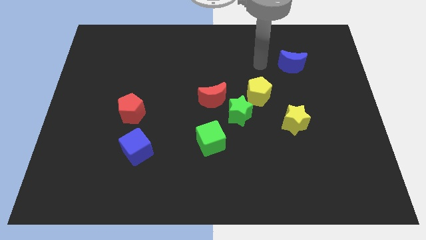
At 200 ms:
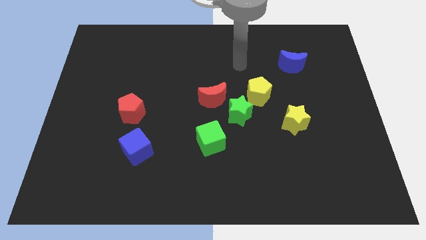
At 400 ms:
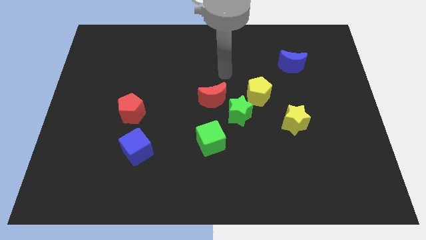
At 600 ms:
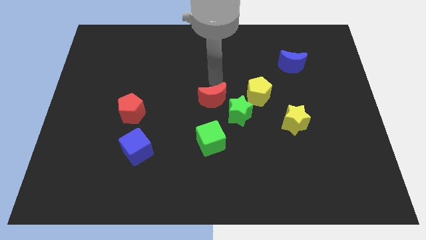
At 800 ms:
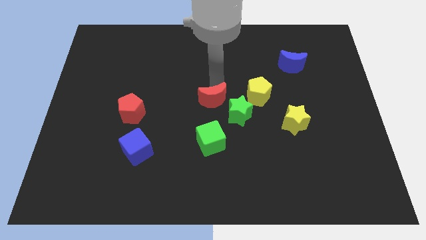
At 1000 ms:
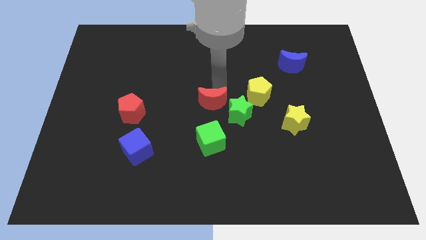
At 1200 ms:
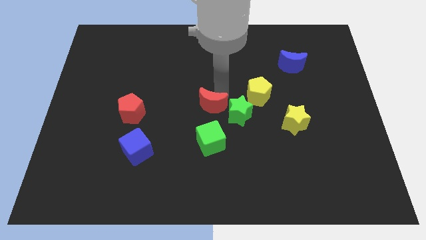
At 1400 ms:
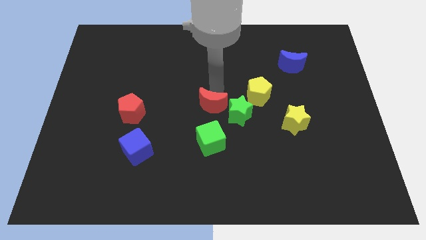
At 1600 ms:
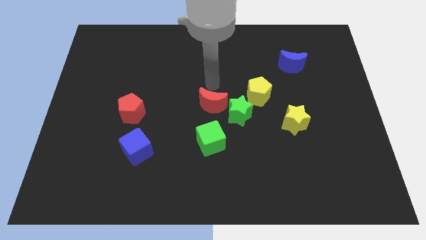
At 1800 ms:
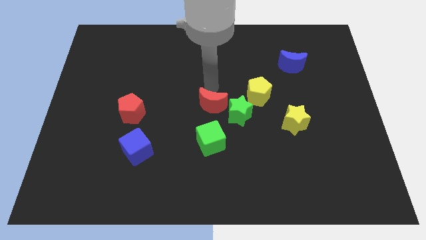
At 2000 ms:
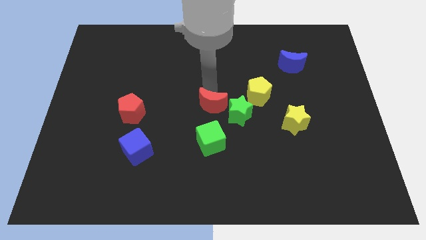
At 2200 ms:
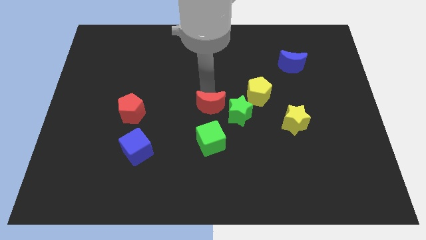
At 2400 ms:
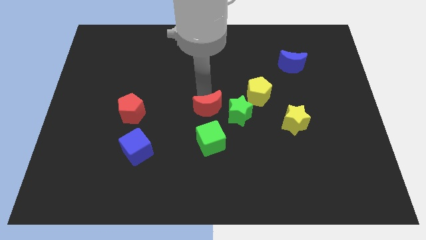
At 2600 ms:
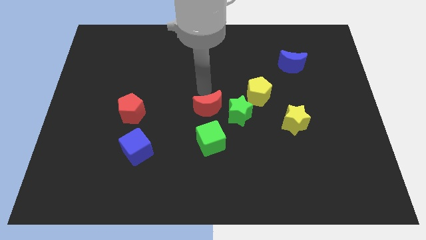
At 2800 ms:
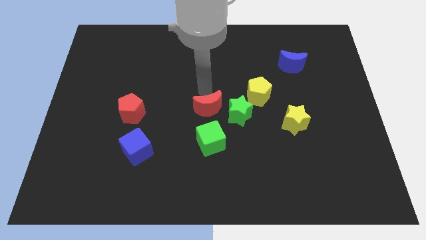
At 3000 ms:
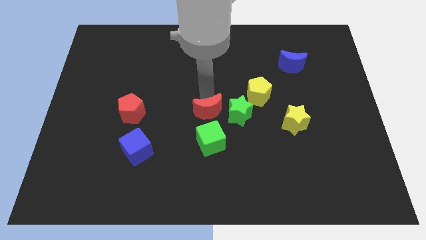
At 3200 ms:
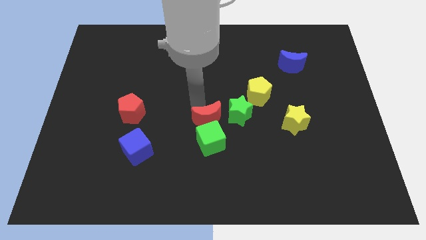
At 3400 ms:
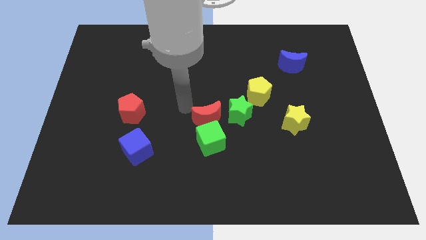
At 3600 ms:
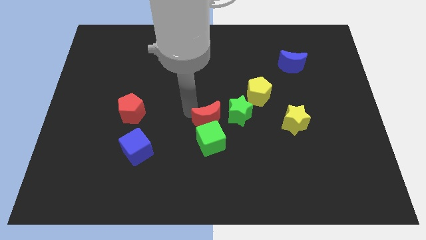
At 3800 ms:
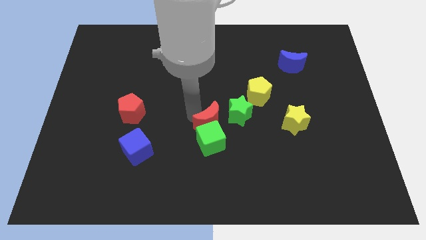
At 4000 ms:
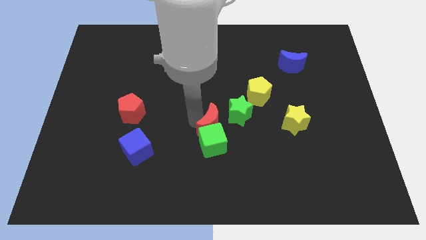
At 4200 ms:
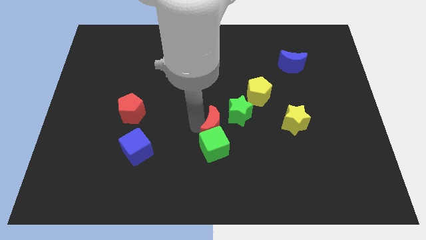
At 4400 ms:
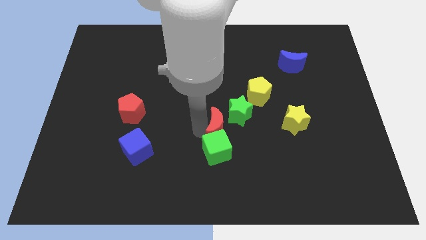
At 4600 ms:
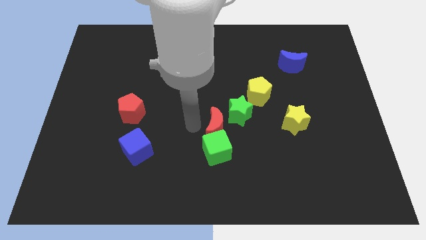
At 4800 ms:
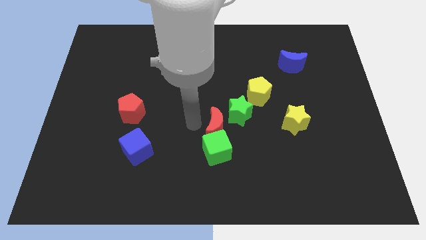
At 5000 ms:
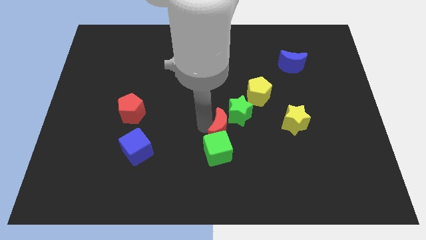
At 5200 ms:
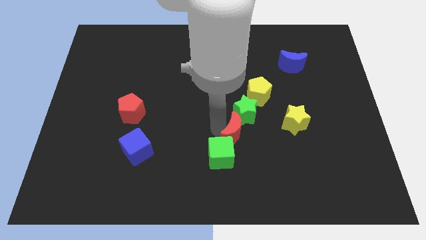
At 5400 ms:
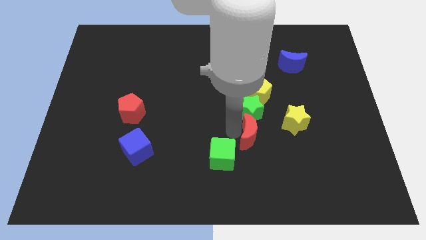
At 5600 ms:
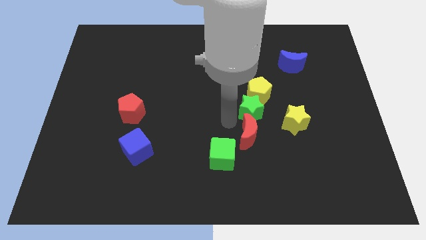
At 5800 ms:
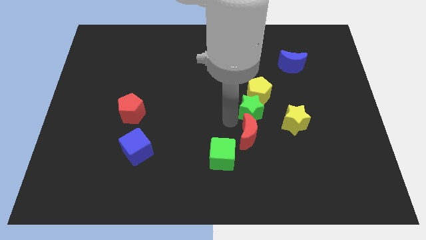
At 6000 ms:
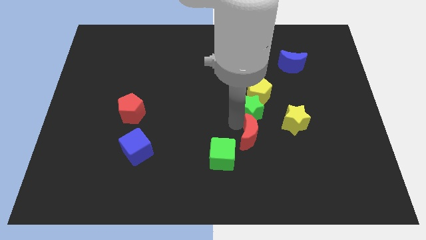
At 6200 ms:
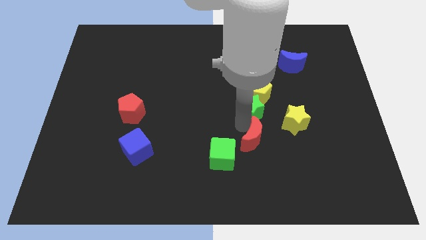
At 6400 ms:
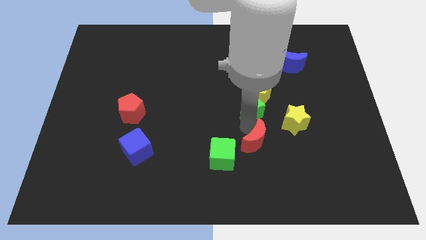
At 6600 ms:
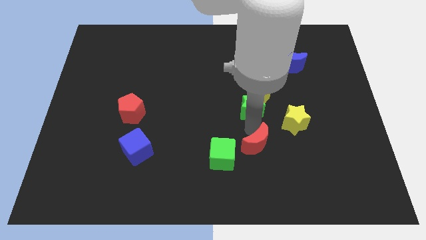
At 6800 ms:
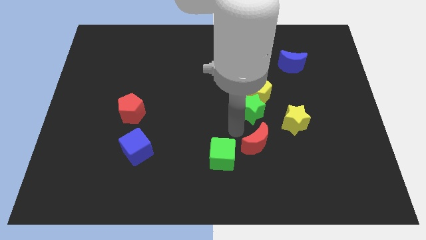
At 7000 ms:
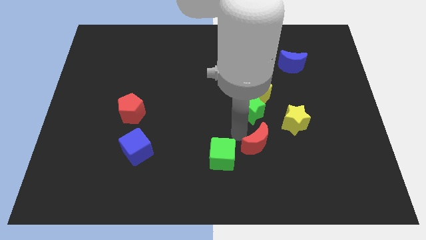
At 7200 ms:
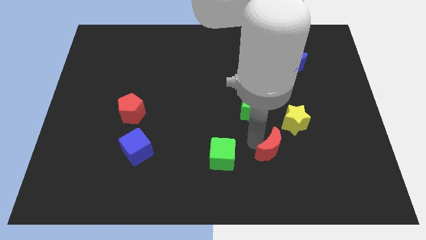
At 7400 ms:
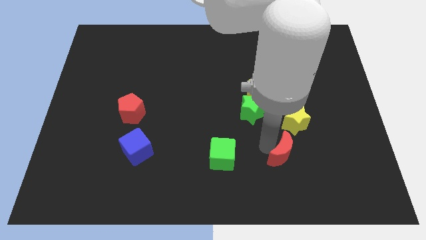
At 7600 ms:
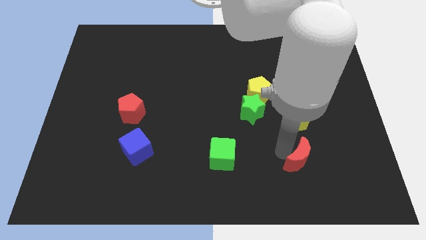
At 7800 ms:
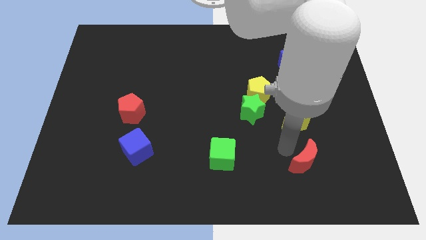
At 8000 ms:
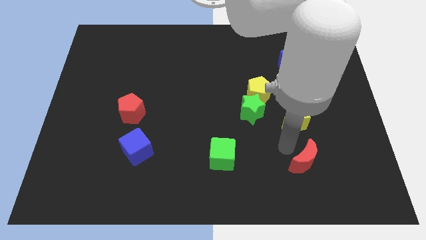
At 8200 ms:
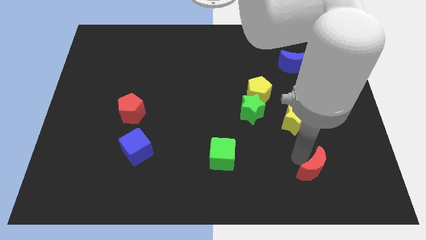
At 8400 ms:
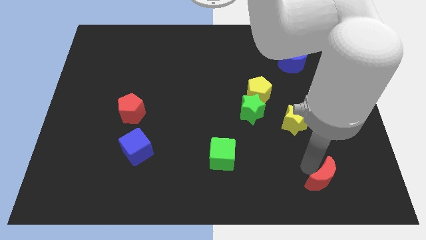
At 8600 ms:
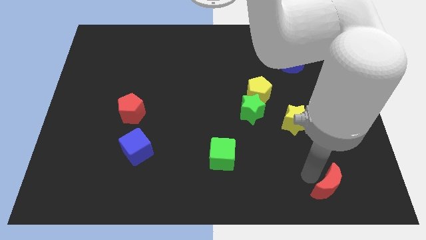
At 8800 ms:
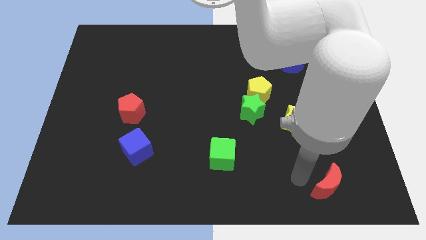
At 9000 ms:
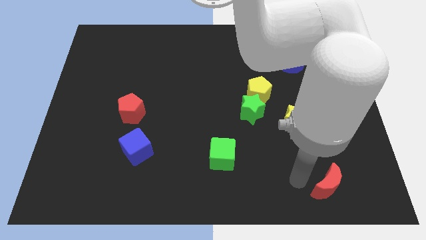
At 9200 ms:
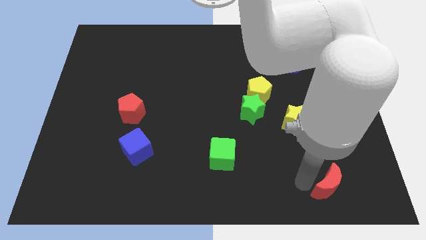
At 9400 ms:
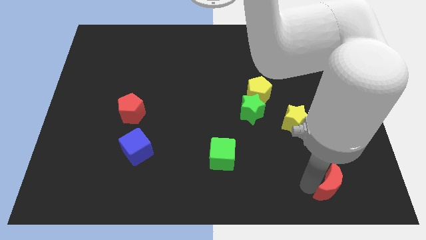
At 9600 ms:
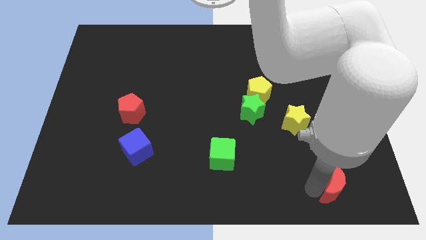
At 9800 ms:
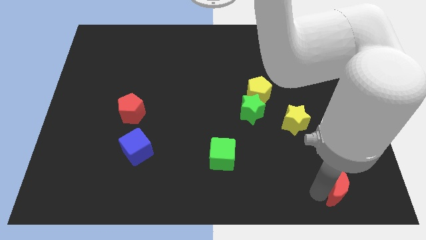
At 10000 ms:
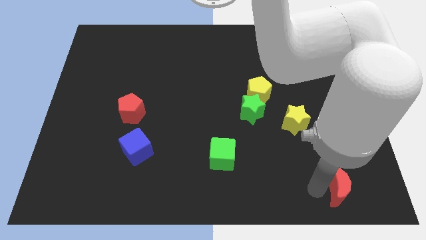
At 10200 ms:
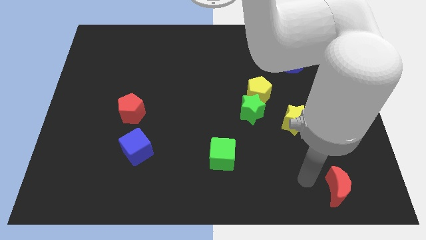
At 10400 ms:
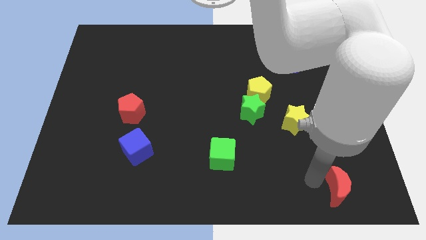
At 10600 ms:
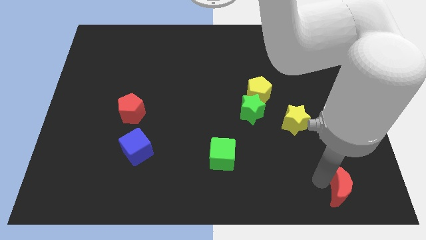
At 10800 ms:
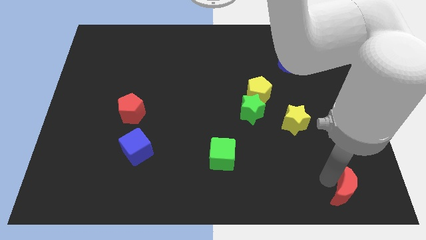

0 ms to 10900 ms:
move the red moon to the bottom right

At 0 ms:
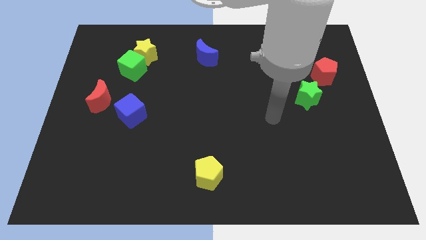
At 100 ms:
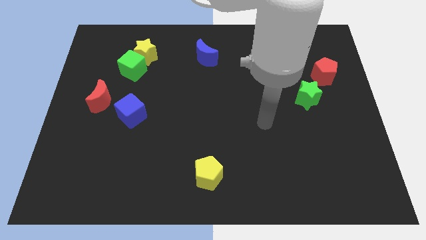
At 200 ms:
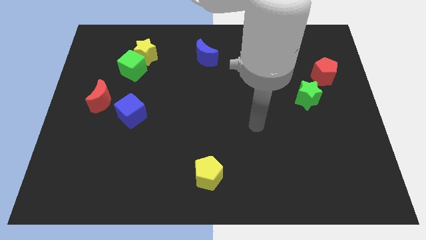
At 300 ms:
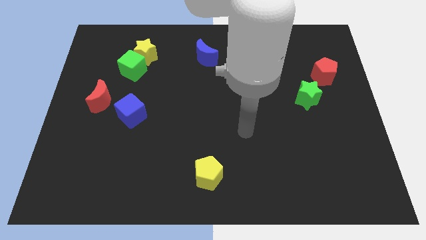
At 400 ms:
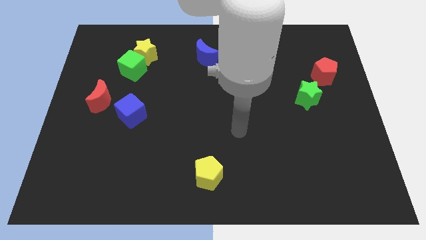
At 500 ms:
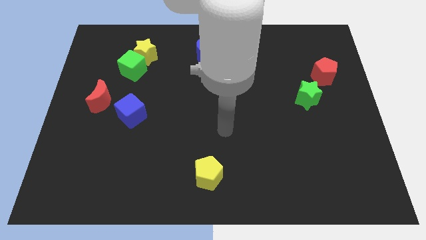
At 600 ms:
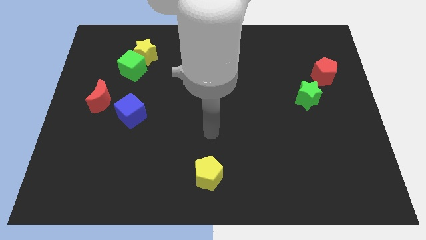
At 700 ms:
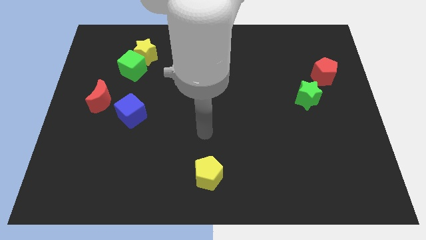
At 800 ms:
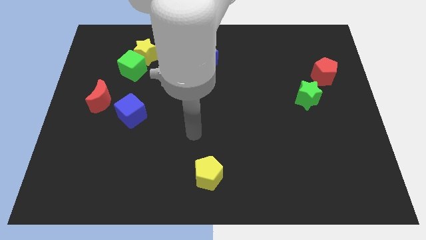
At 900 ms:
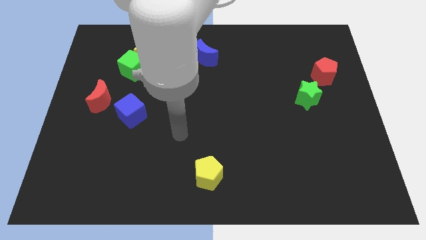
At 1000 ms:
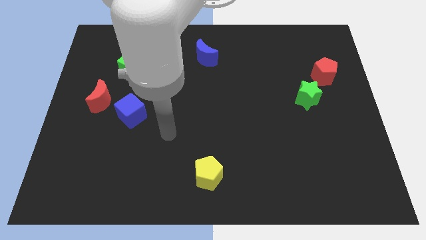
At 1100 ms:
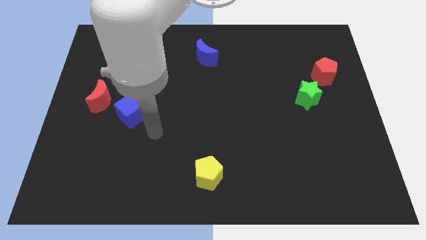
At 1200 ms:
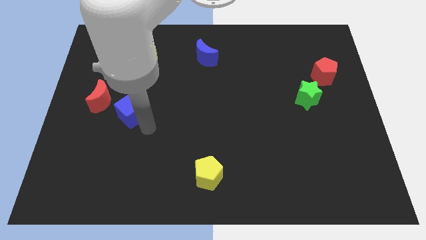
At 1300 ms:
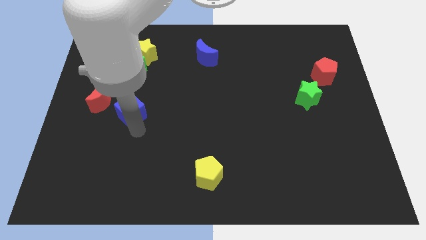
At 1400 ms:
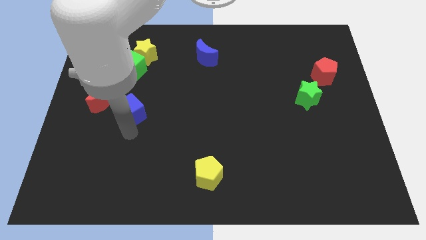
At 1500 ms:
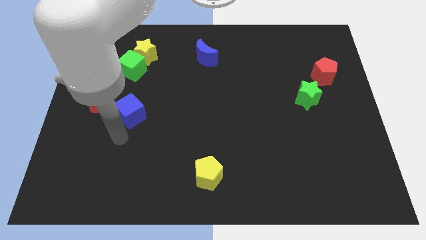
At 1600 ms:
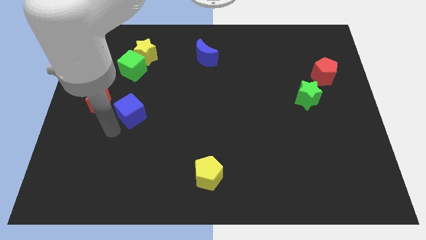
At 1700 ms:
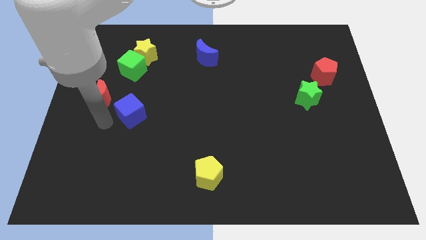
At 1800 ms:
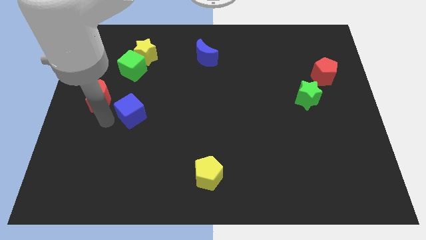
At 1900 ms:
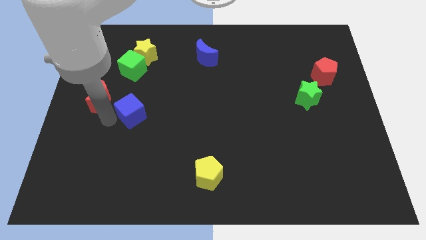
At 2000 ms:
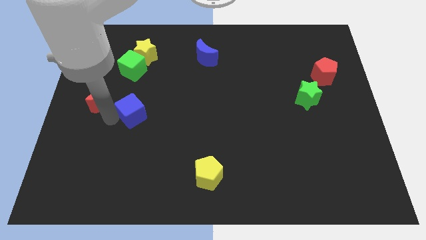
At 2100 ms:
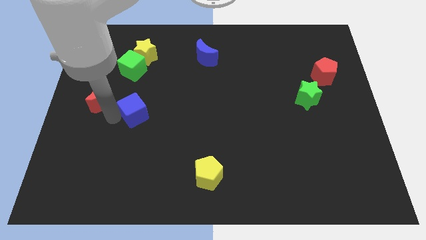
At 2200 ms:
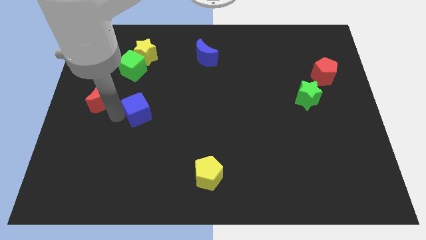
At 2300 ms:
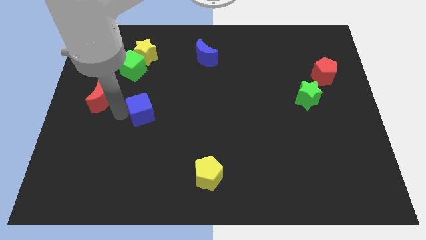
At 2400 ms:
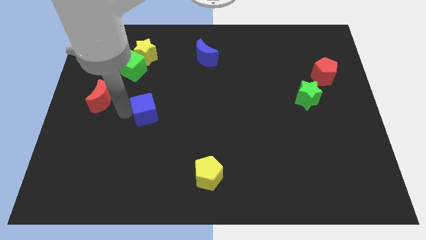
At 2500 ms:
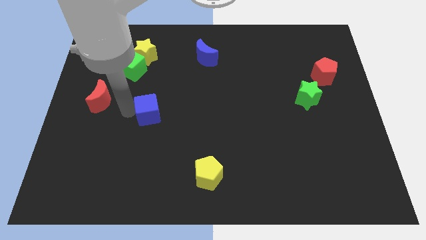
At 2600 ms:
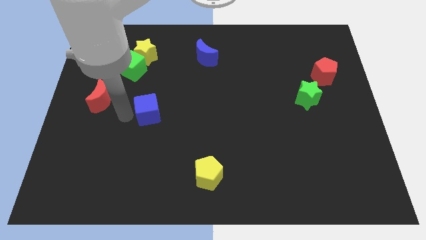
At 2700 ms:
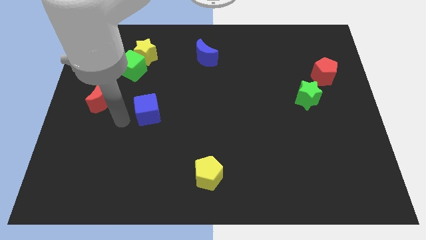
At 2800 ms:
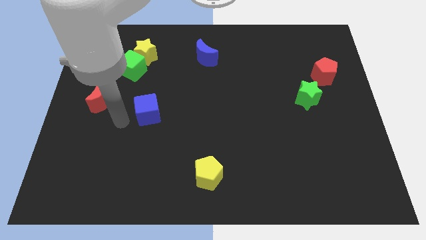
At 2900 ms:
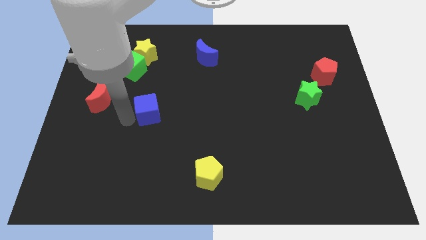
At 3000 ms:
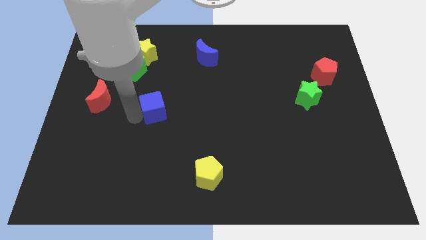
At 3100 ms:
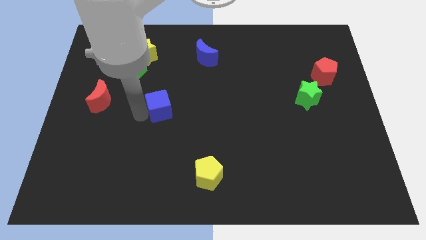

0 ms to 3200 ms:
move the blue cube to the center
